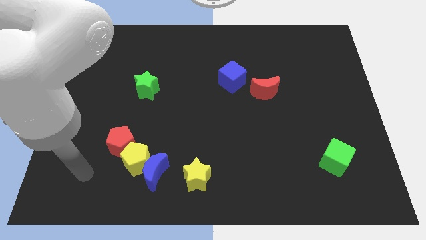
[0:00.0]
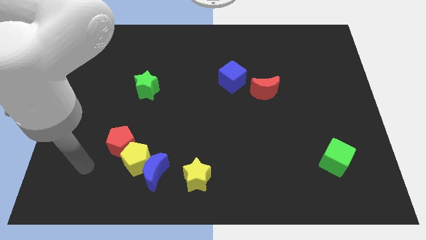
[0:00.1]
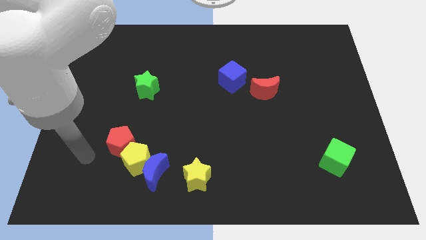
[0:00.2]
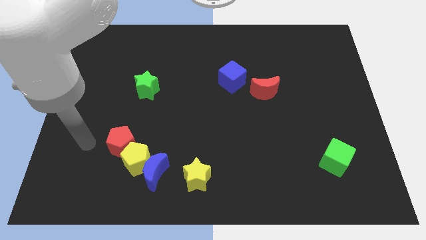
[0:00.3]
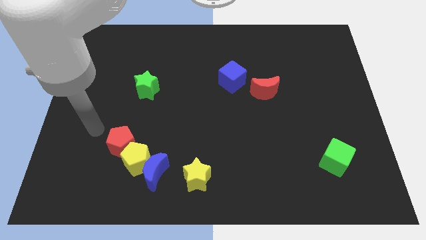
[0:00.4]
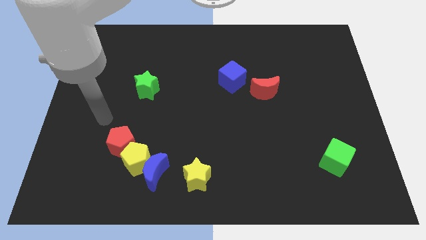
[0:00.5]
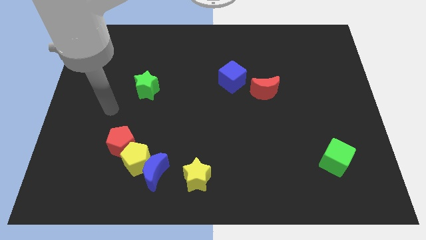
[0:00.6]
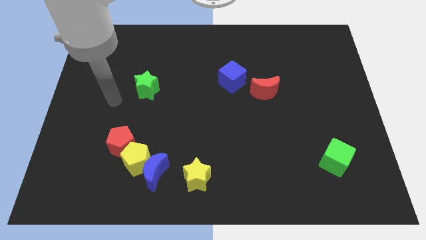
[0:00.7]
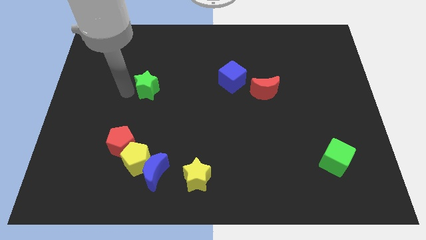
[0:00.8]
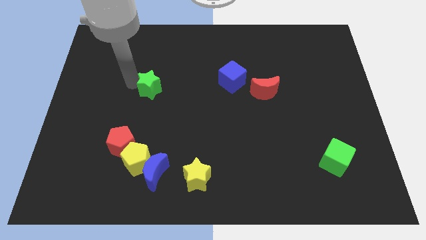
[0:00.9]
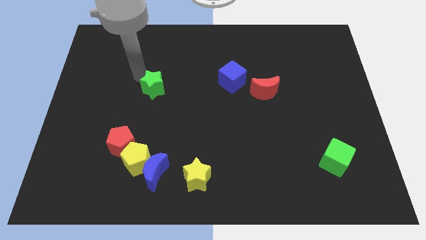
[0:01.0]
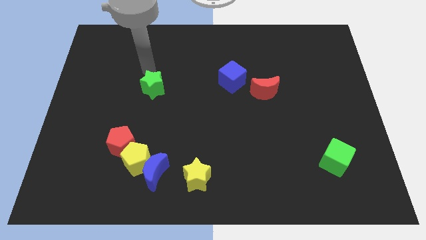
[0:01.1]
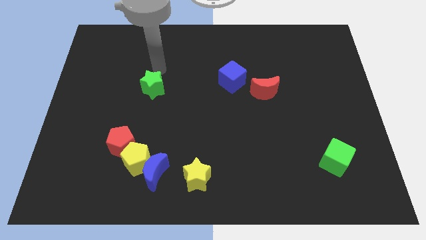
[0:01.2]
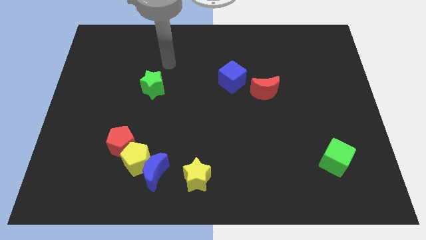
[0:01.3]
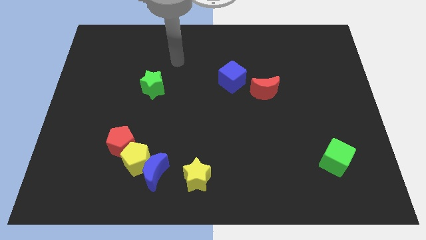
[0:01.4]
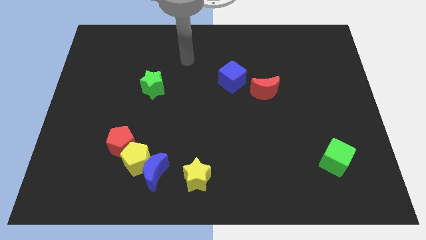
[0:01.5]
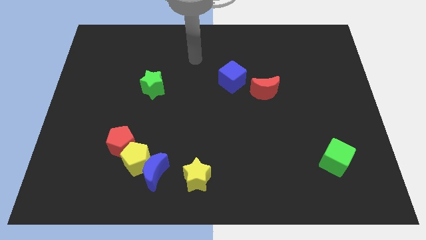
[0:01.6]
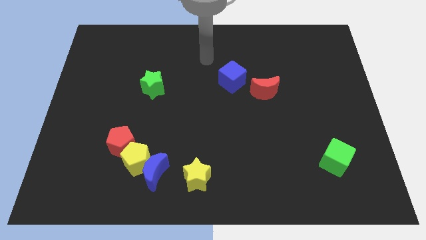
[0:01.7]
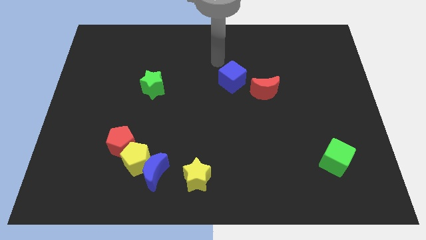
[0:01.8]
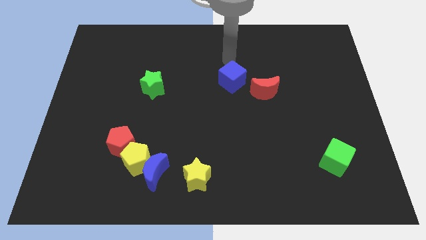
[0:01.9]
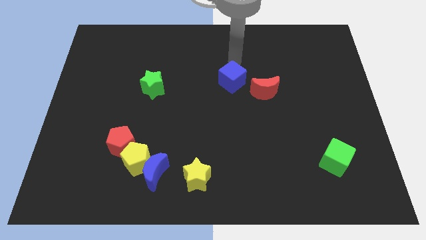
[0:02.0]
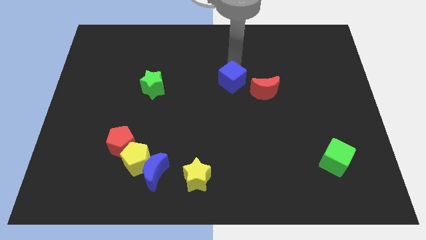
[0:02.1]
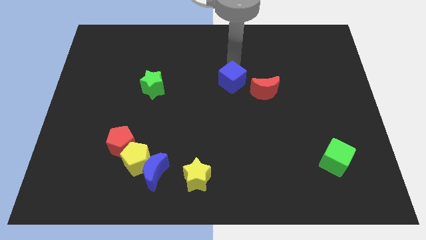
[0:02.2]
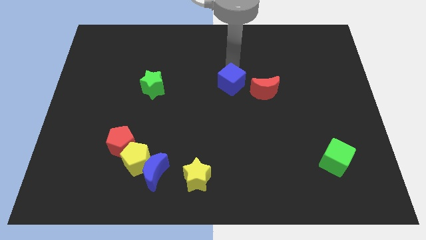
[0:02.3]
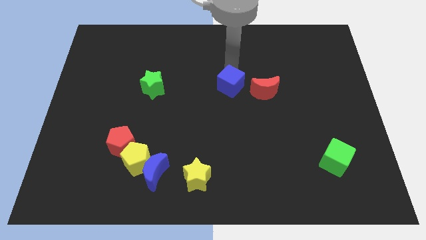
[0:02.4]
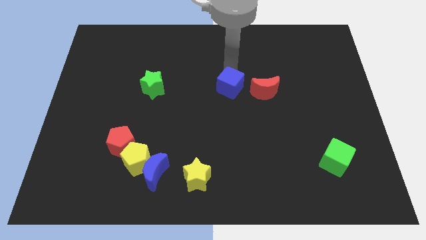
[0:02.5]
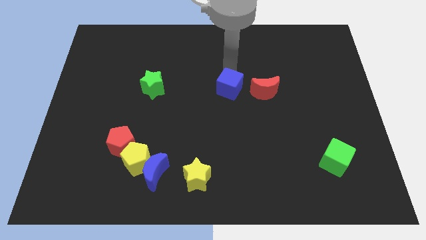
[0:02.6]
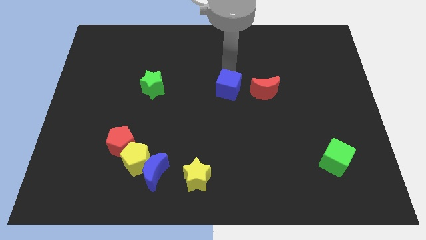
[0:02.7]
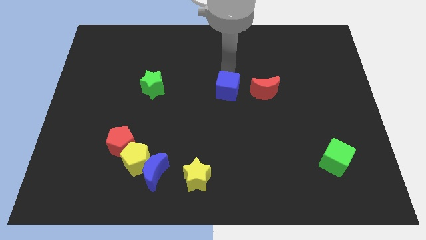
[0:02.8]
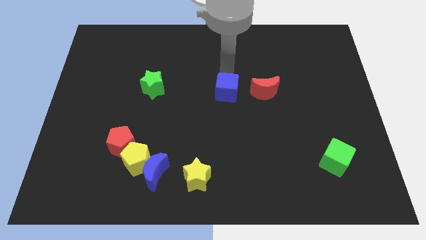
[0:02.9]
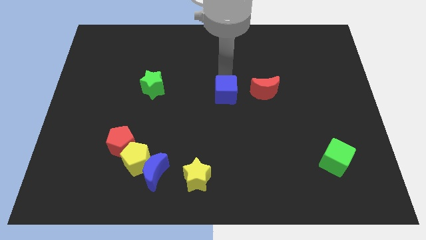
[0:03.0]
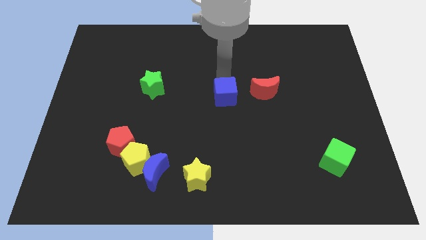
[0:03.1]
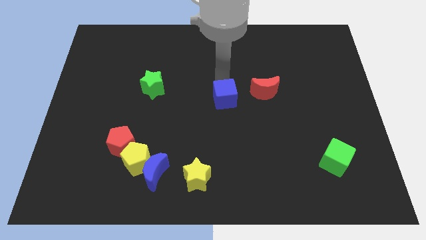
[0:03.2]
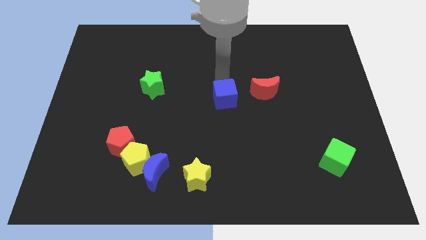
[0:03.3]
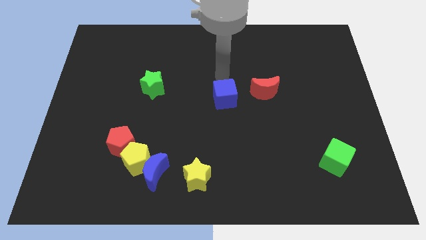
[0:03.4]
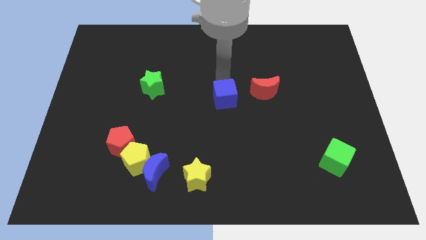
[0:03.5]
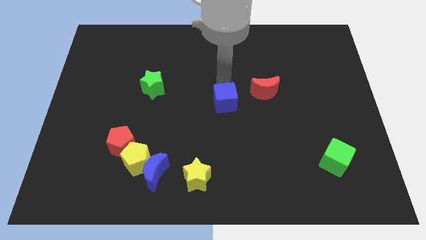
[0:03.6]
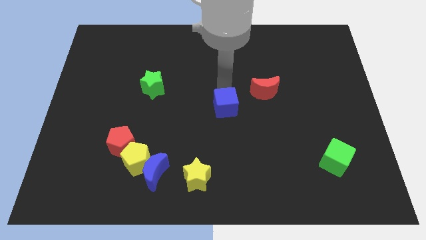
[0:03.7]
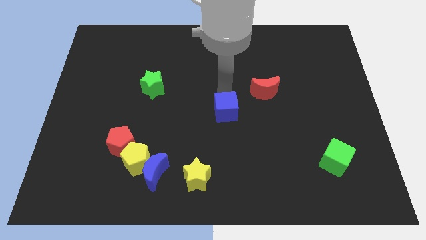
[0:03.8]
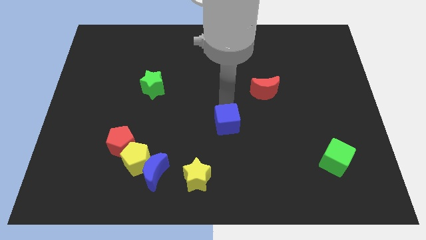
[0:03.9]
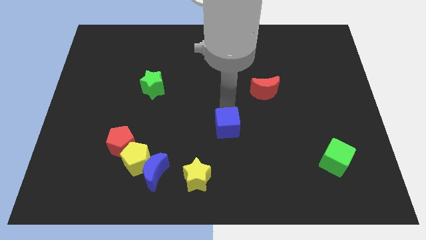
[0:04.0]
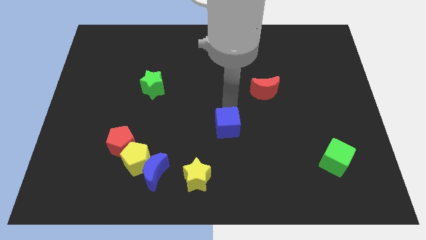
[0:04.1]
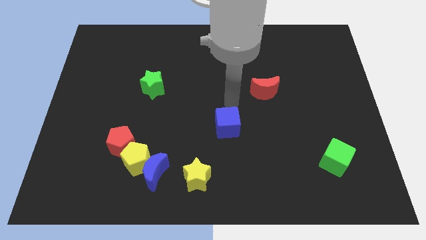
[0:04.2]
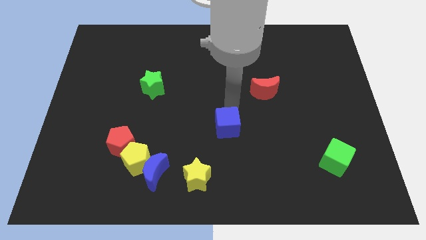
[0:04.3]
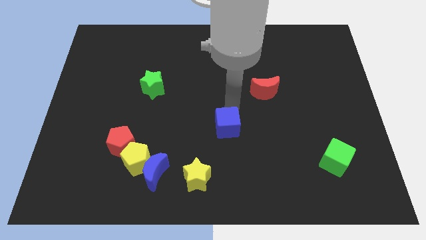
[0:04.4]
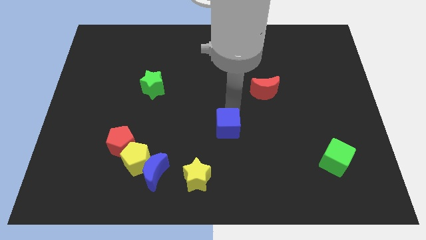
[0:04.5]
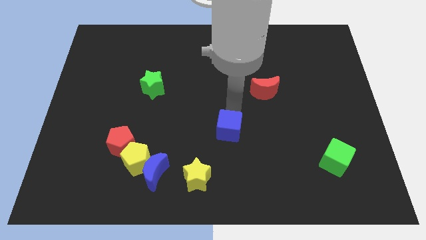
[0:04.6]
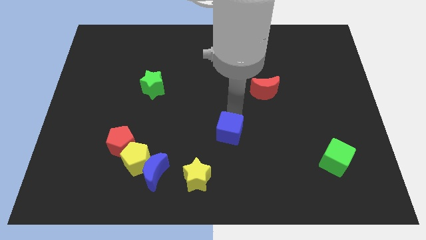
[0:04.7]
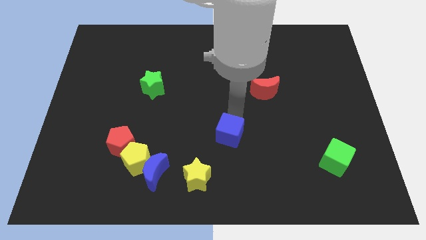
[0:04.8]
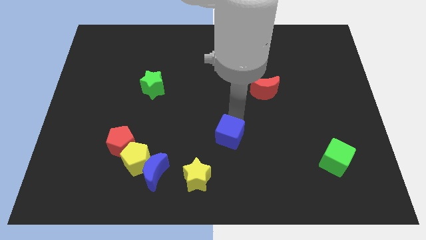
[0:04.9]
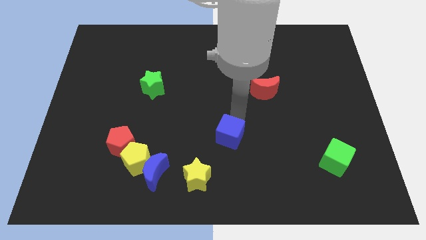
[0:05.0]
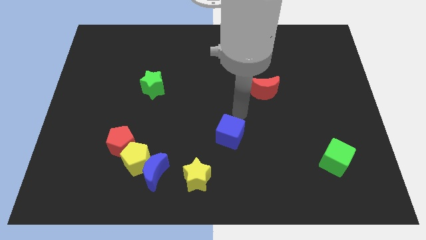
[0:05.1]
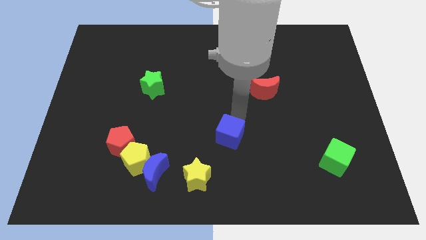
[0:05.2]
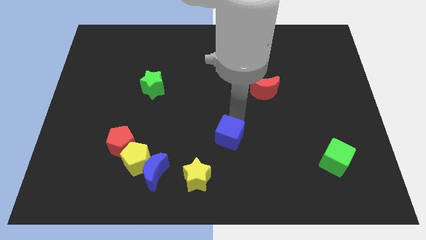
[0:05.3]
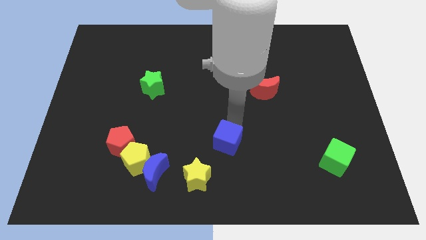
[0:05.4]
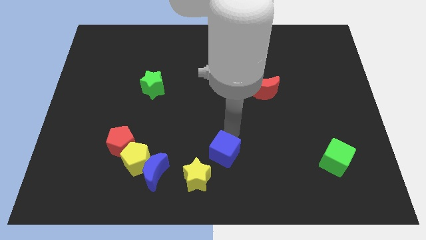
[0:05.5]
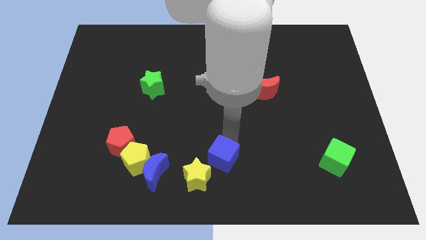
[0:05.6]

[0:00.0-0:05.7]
put the blue cube to the right of the blue moon

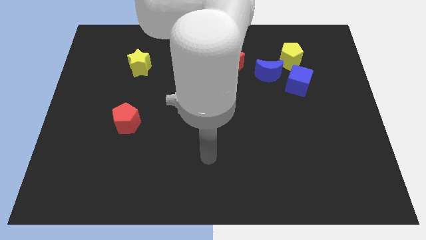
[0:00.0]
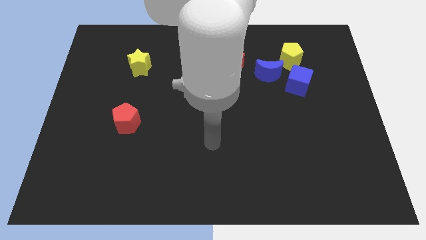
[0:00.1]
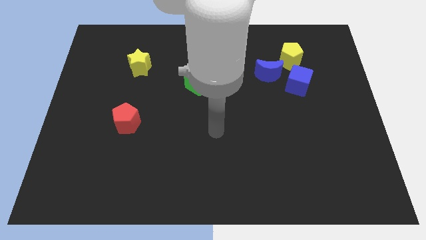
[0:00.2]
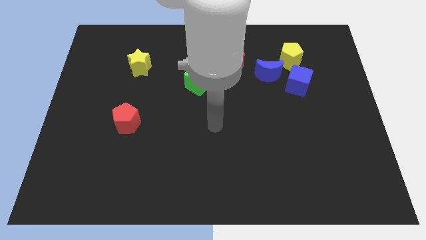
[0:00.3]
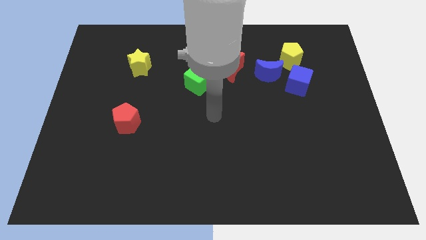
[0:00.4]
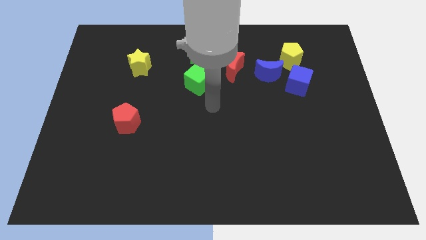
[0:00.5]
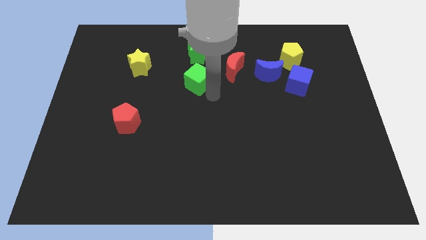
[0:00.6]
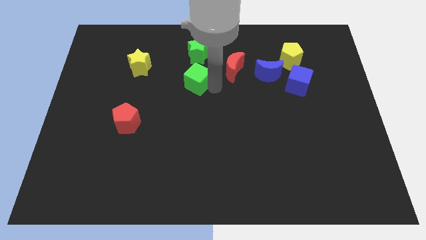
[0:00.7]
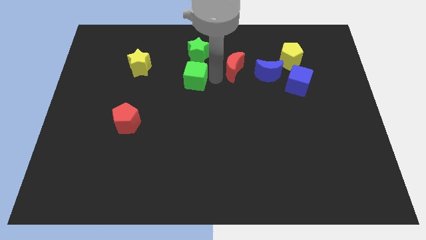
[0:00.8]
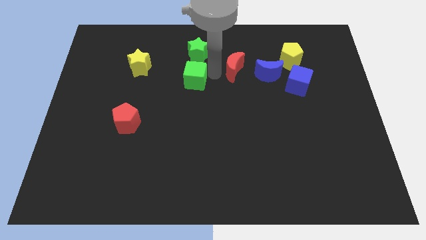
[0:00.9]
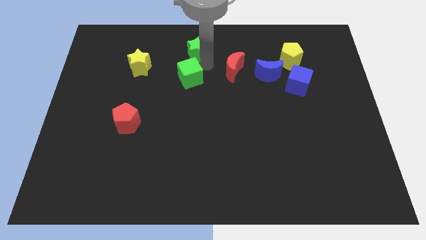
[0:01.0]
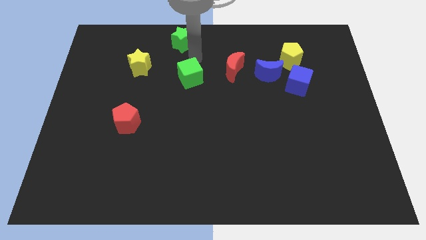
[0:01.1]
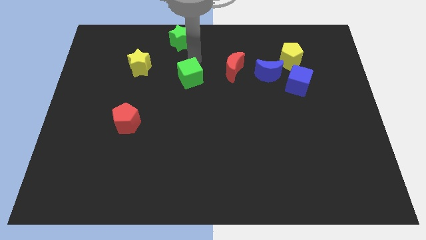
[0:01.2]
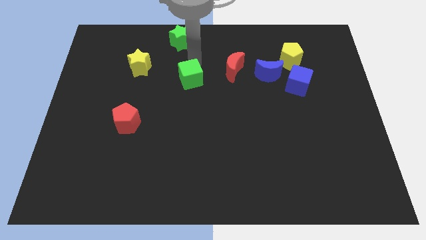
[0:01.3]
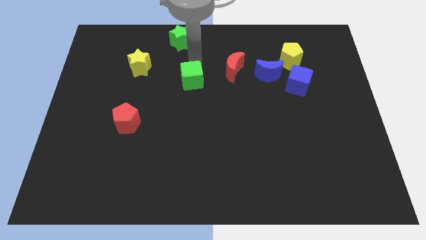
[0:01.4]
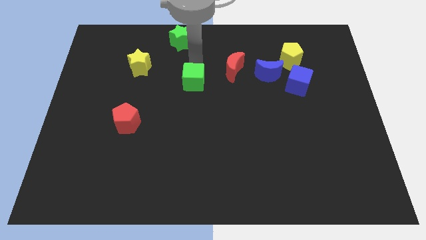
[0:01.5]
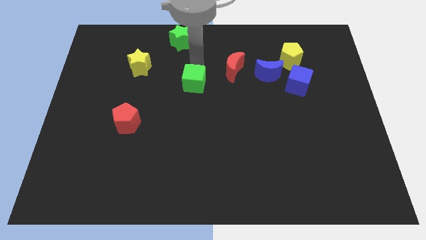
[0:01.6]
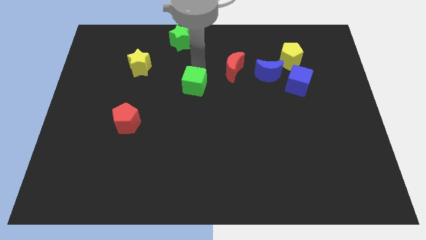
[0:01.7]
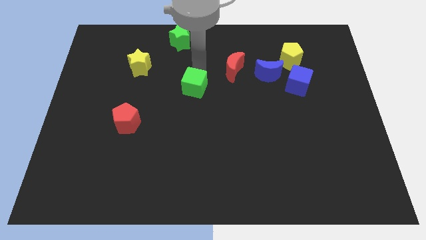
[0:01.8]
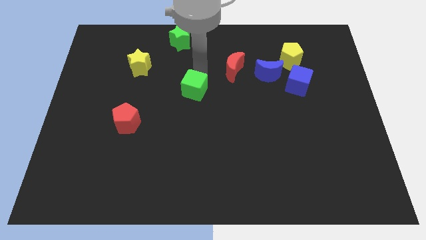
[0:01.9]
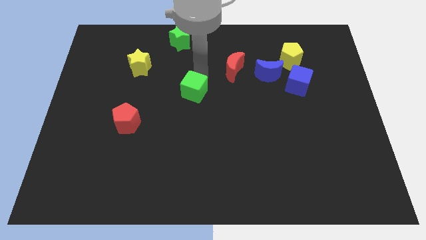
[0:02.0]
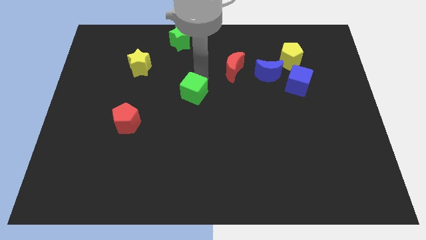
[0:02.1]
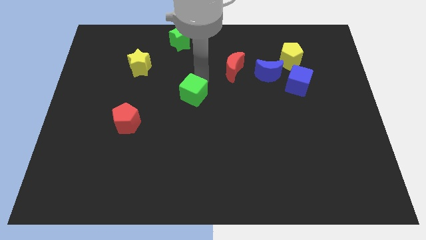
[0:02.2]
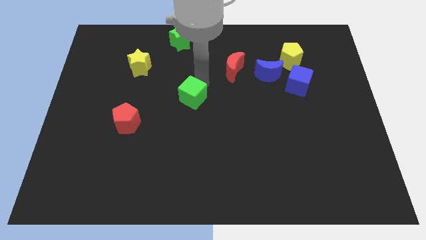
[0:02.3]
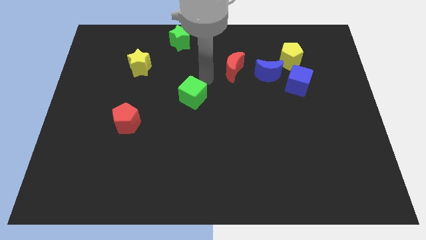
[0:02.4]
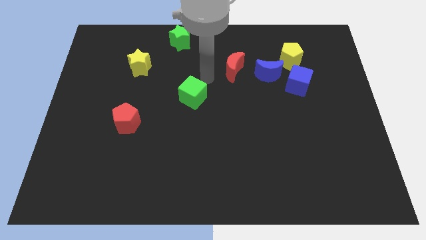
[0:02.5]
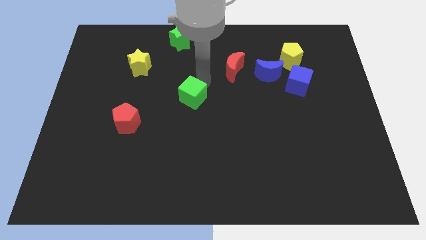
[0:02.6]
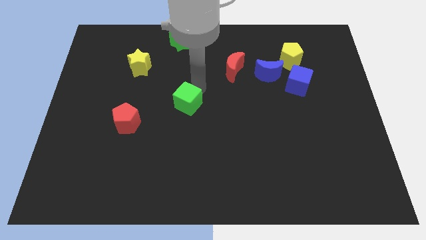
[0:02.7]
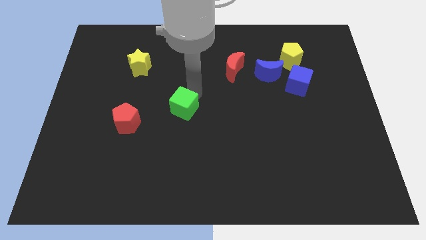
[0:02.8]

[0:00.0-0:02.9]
push the green cube to the right of the red pentagon
